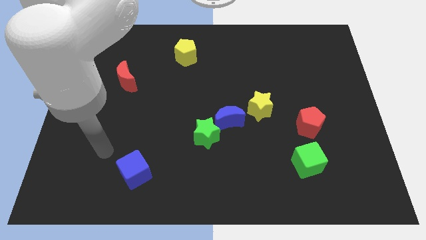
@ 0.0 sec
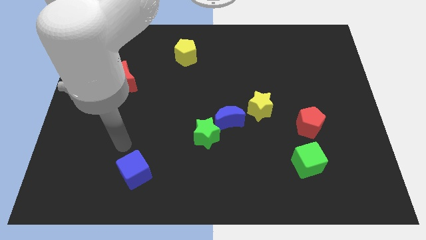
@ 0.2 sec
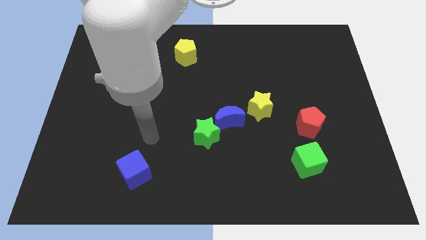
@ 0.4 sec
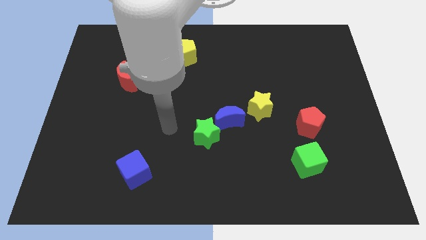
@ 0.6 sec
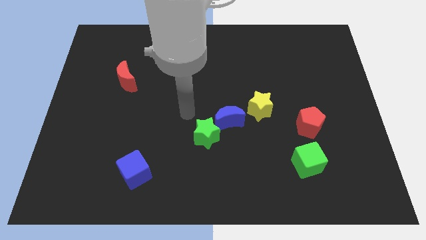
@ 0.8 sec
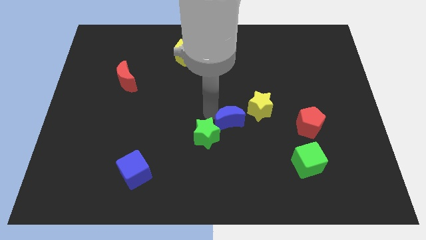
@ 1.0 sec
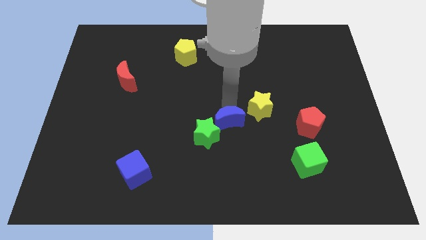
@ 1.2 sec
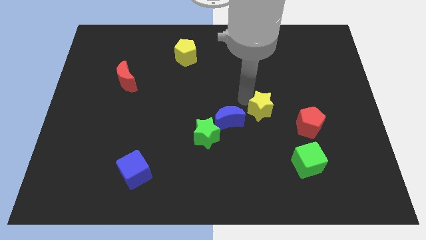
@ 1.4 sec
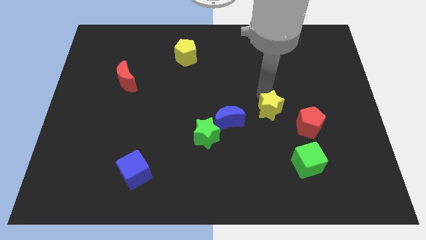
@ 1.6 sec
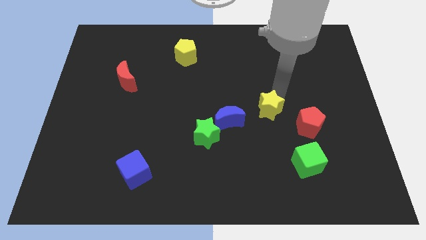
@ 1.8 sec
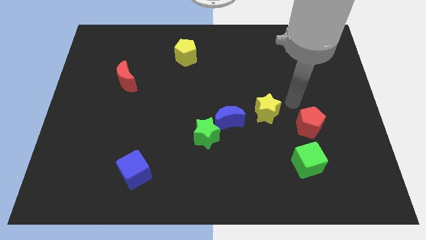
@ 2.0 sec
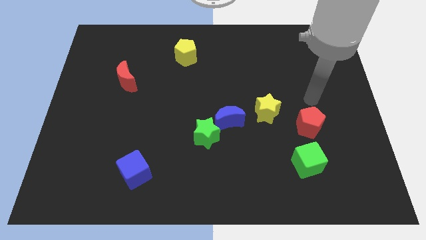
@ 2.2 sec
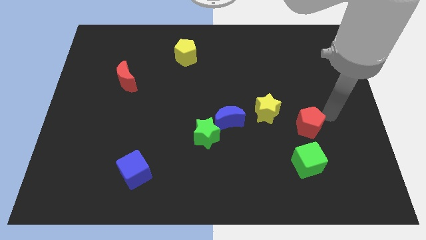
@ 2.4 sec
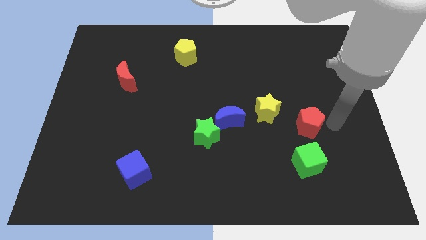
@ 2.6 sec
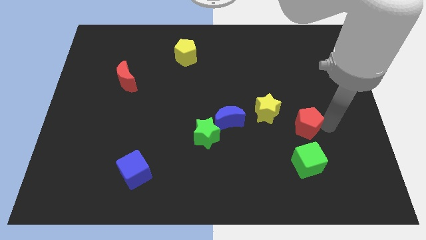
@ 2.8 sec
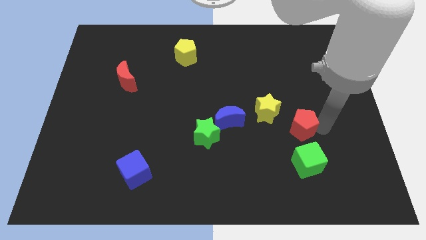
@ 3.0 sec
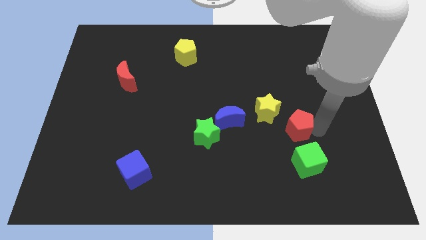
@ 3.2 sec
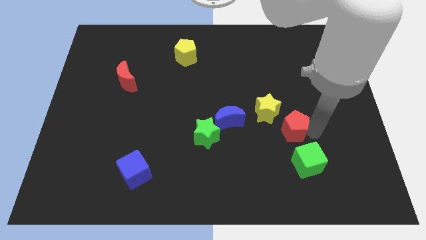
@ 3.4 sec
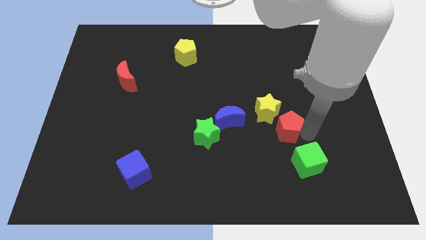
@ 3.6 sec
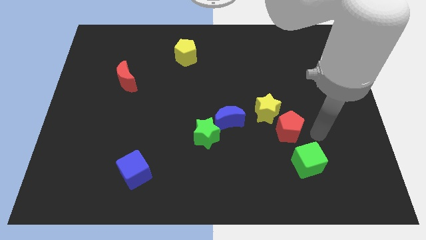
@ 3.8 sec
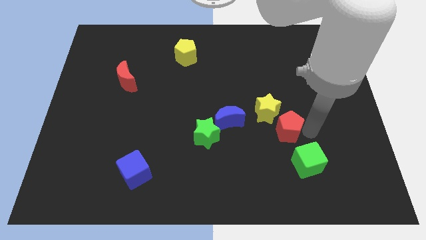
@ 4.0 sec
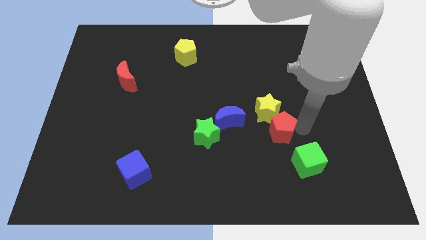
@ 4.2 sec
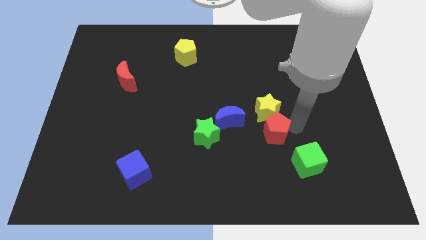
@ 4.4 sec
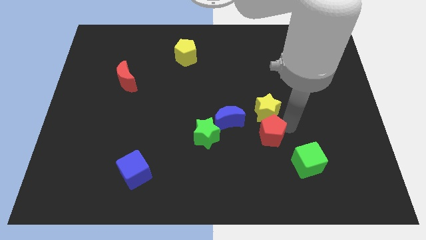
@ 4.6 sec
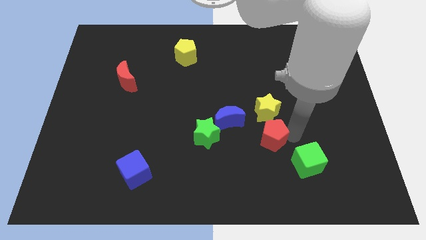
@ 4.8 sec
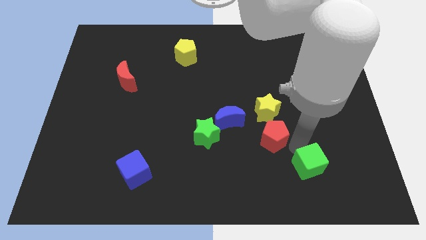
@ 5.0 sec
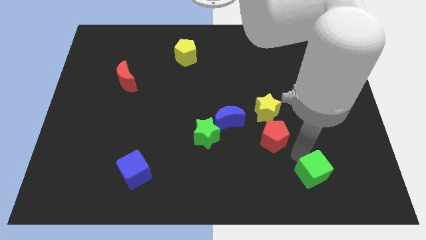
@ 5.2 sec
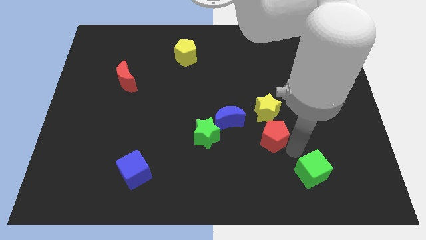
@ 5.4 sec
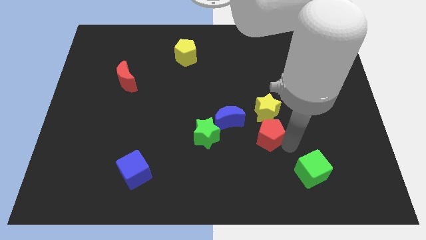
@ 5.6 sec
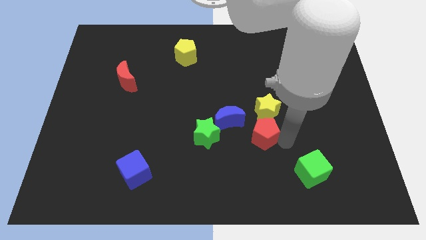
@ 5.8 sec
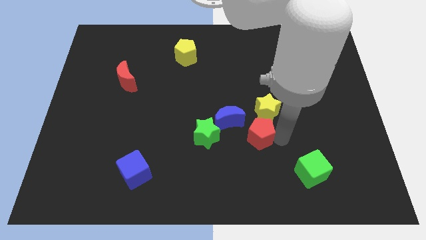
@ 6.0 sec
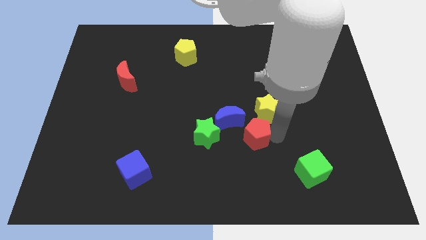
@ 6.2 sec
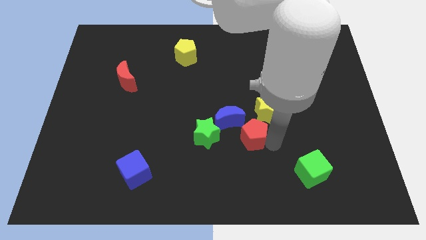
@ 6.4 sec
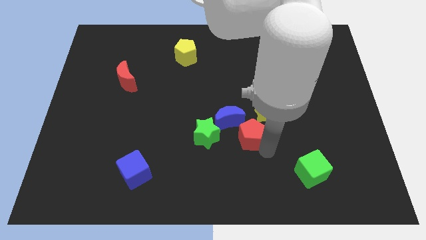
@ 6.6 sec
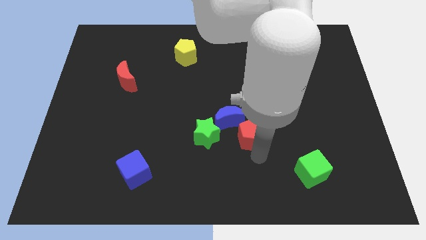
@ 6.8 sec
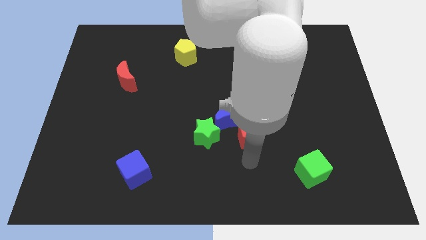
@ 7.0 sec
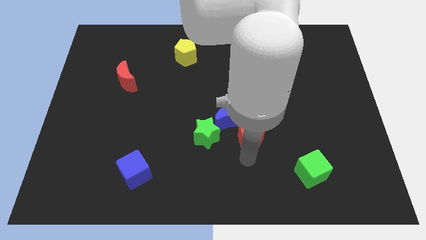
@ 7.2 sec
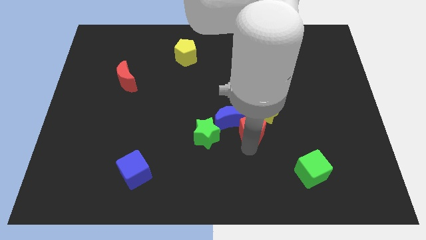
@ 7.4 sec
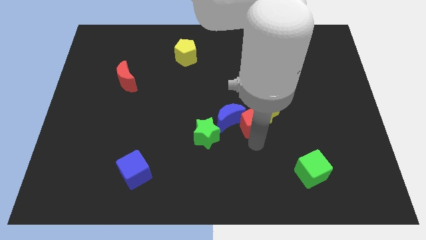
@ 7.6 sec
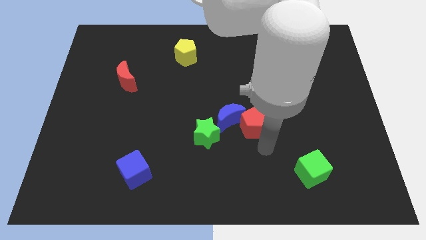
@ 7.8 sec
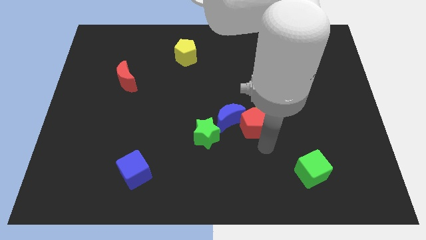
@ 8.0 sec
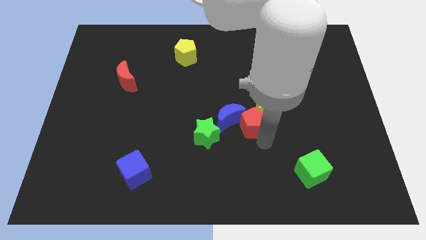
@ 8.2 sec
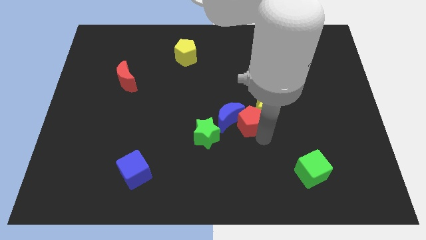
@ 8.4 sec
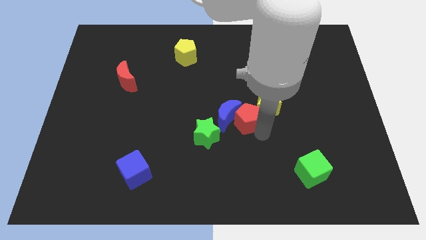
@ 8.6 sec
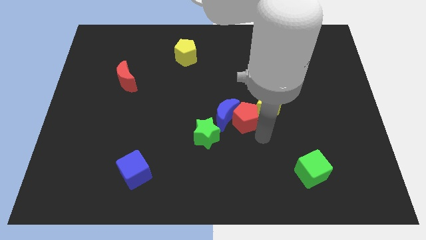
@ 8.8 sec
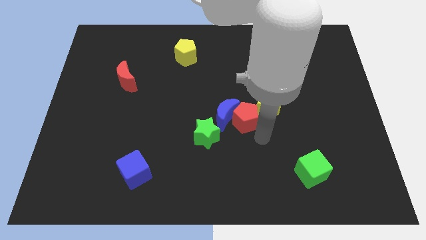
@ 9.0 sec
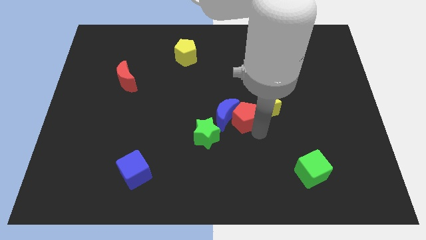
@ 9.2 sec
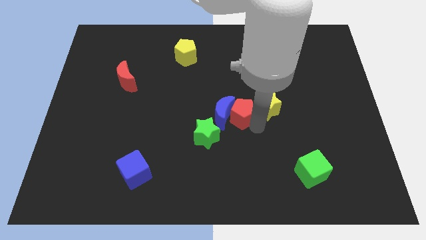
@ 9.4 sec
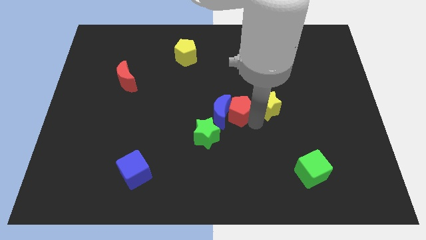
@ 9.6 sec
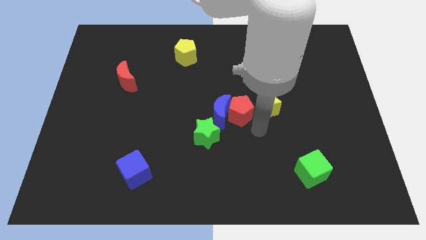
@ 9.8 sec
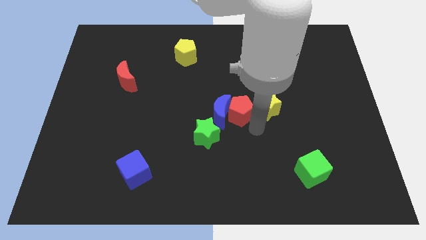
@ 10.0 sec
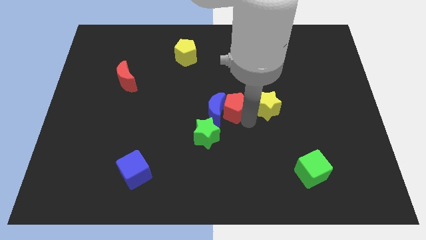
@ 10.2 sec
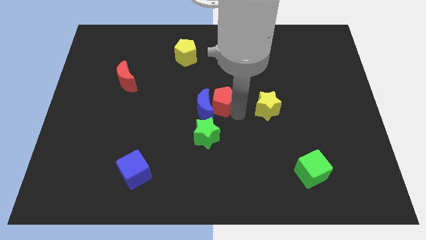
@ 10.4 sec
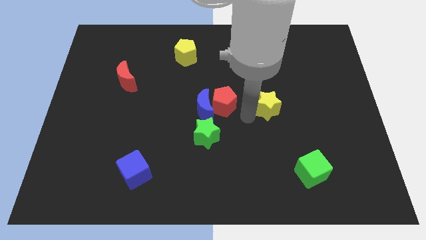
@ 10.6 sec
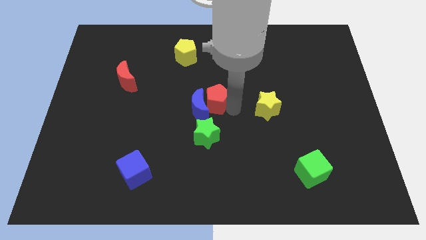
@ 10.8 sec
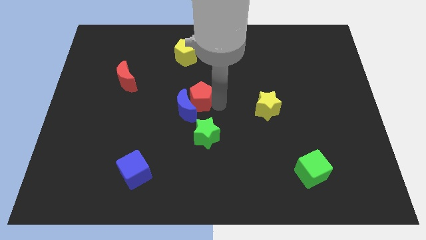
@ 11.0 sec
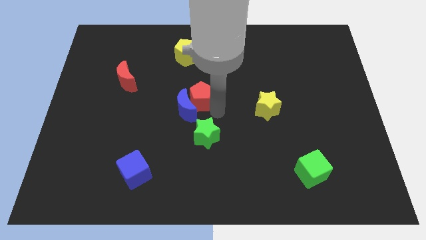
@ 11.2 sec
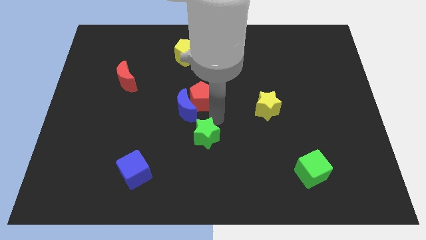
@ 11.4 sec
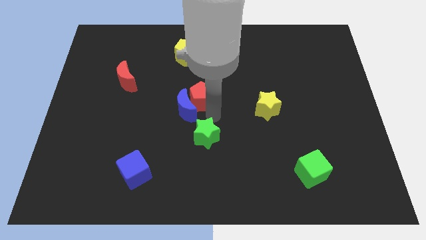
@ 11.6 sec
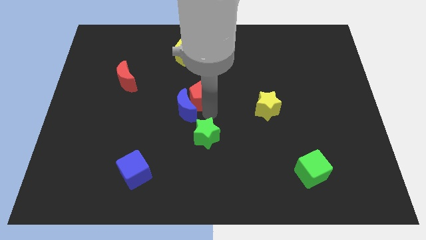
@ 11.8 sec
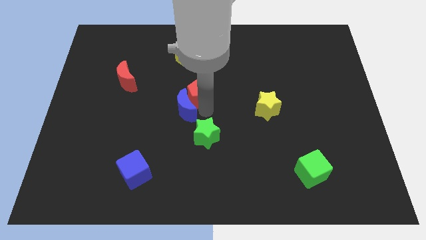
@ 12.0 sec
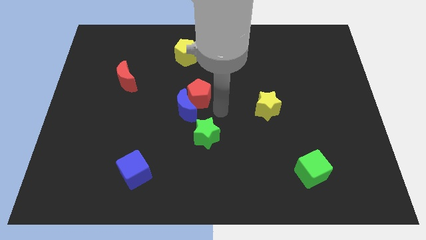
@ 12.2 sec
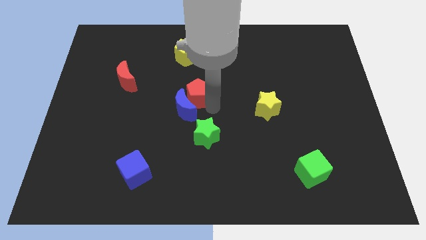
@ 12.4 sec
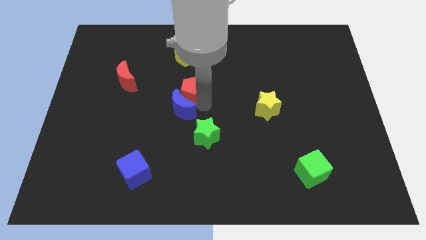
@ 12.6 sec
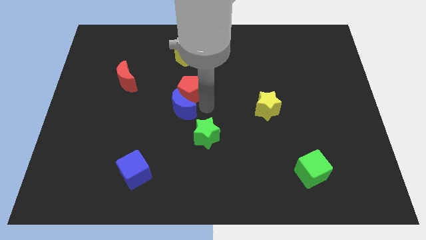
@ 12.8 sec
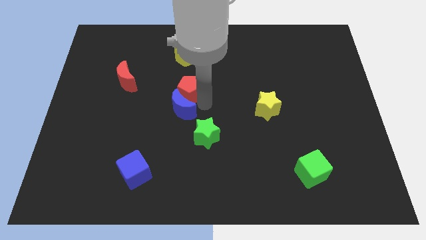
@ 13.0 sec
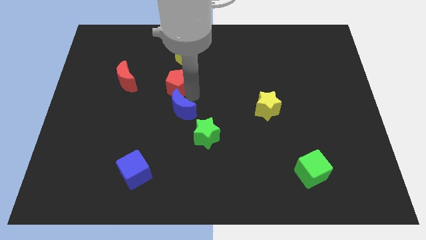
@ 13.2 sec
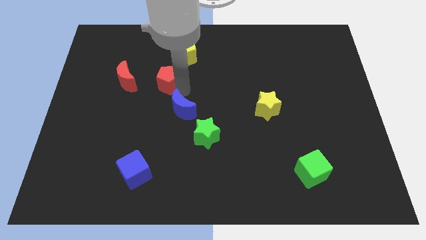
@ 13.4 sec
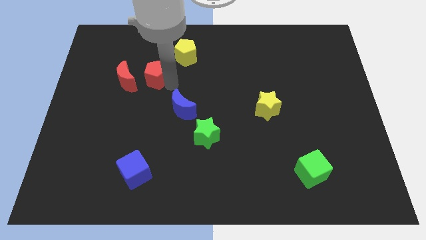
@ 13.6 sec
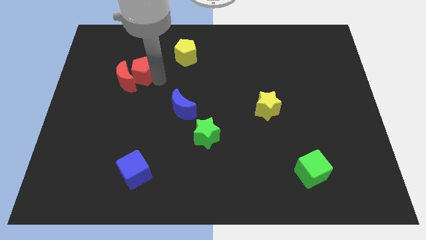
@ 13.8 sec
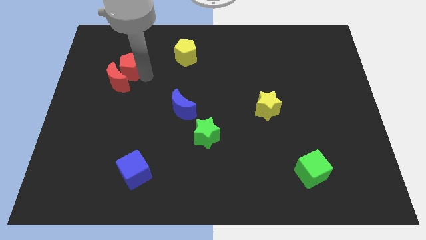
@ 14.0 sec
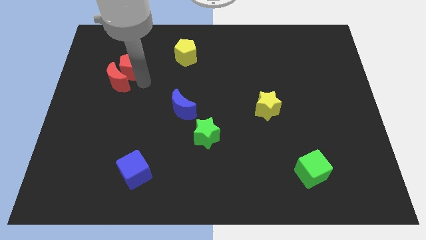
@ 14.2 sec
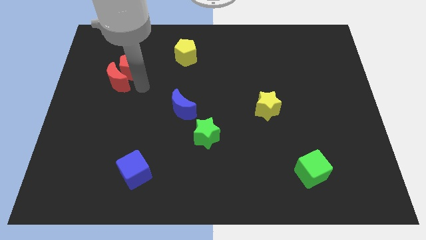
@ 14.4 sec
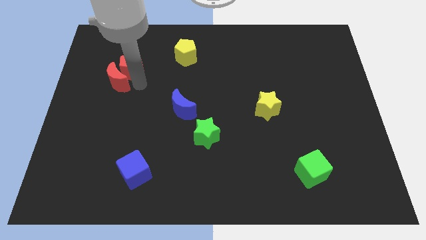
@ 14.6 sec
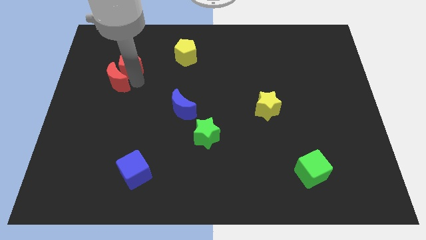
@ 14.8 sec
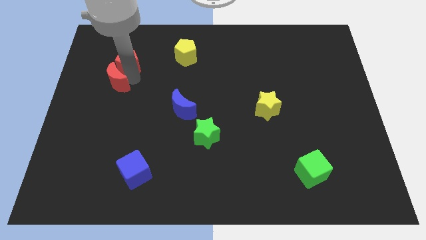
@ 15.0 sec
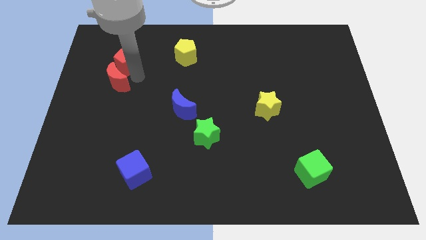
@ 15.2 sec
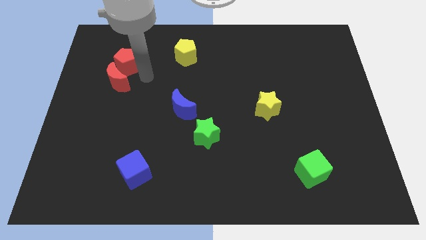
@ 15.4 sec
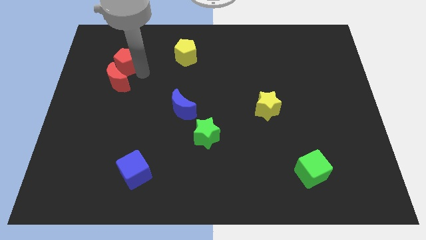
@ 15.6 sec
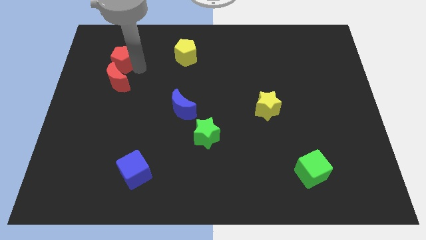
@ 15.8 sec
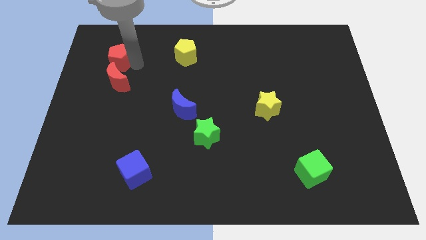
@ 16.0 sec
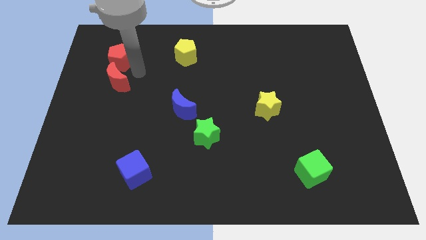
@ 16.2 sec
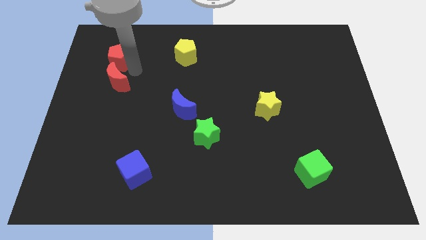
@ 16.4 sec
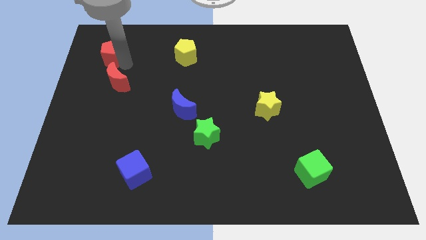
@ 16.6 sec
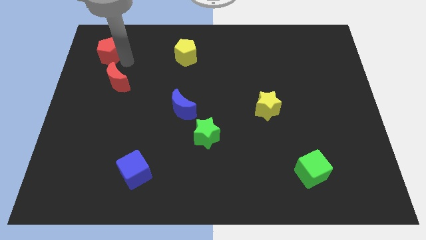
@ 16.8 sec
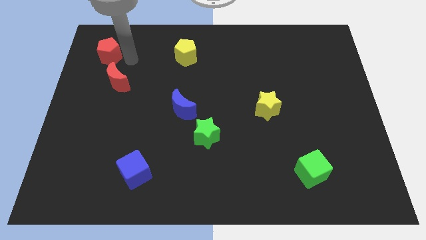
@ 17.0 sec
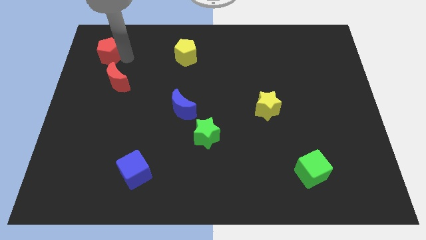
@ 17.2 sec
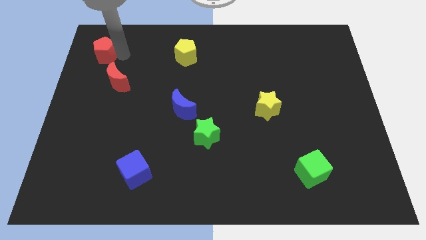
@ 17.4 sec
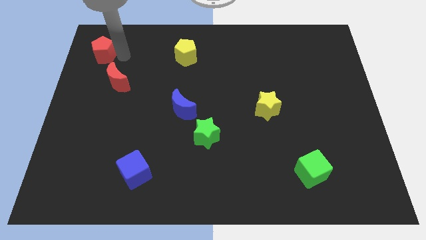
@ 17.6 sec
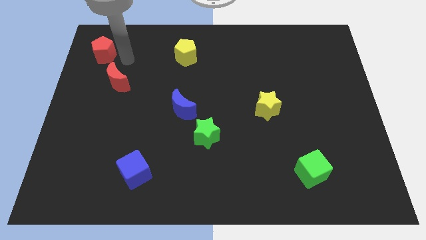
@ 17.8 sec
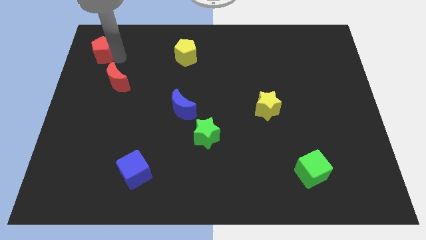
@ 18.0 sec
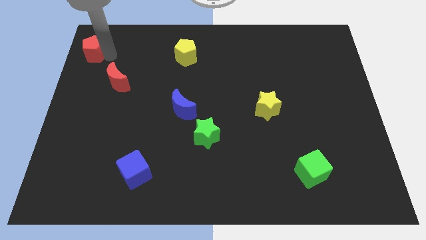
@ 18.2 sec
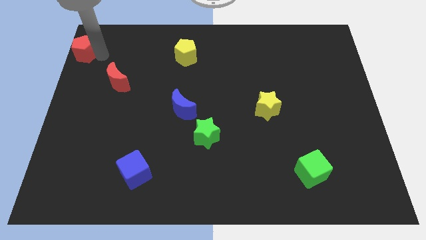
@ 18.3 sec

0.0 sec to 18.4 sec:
put the red pentagon to the top left
